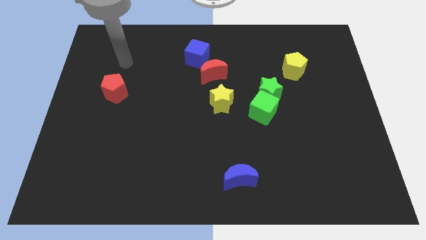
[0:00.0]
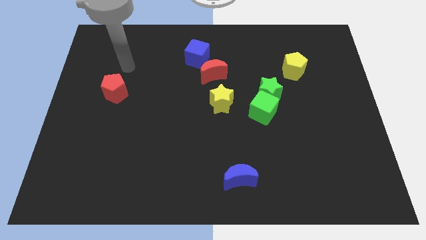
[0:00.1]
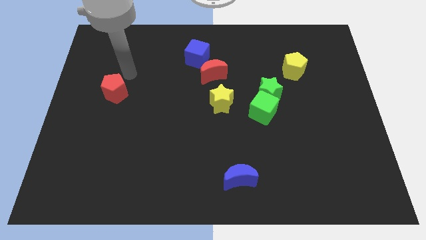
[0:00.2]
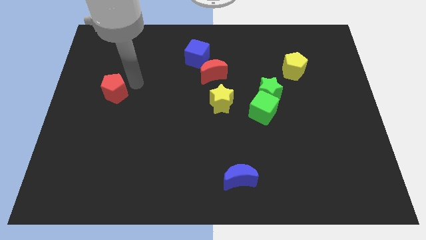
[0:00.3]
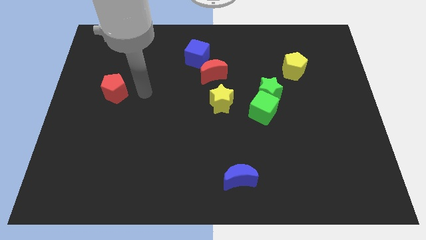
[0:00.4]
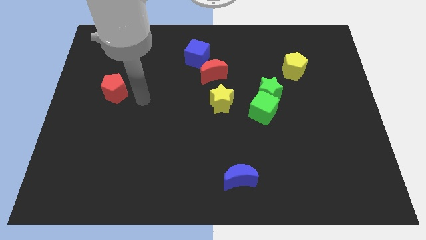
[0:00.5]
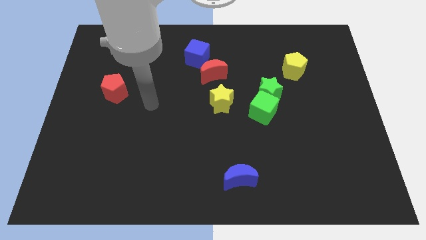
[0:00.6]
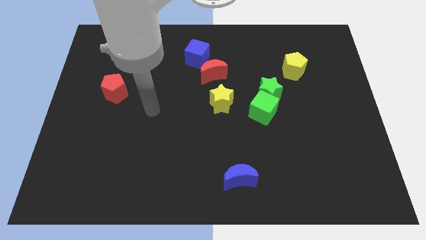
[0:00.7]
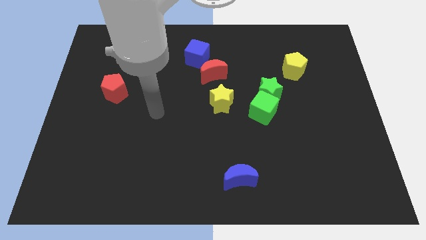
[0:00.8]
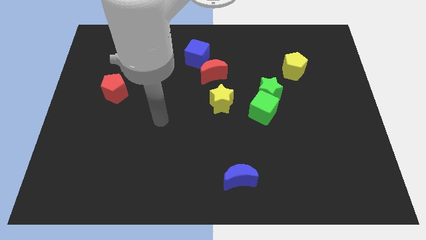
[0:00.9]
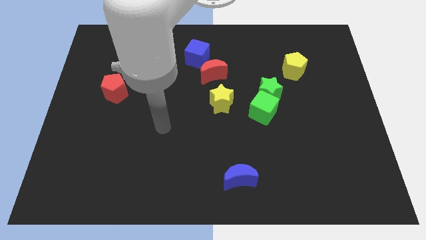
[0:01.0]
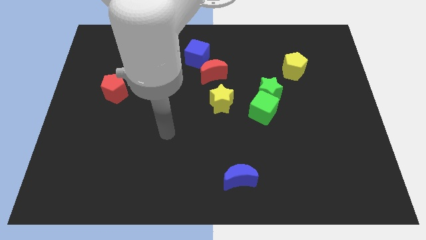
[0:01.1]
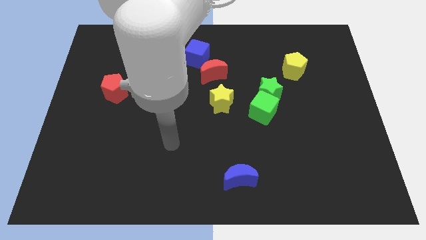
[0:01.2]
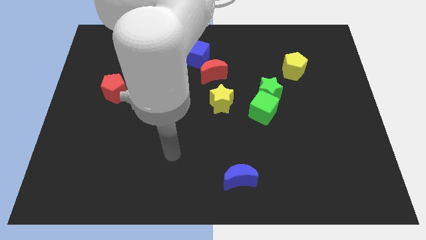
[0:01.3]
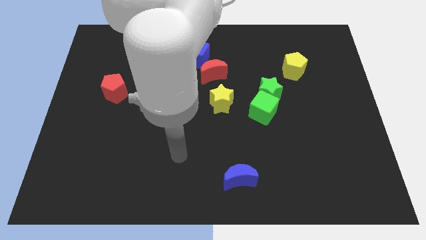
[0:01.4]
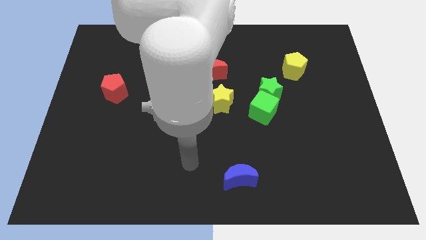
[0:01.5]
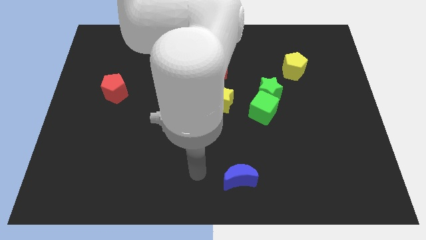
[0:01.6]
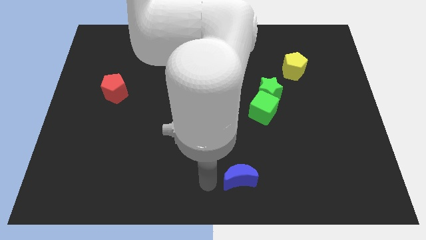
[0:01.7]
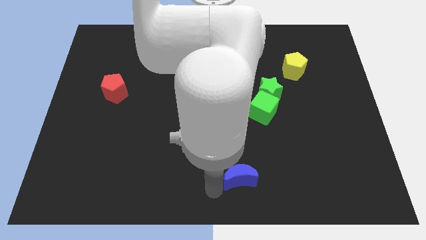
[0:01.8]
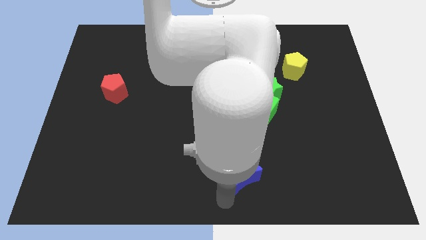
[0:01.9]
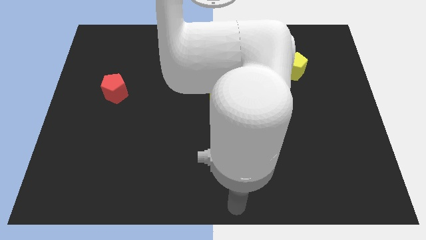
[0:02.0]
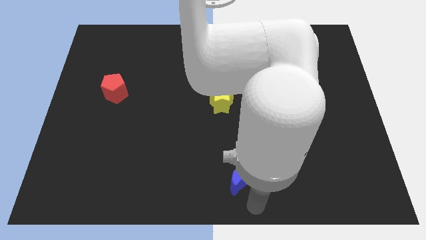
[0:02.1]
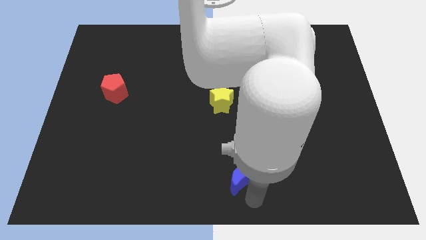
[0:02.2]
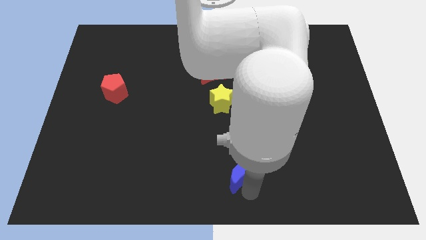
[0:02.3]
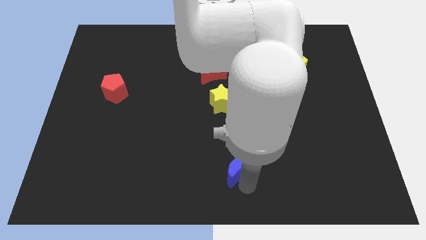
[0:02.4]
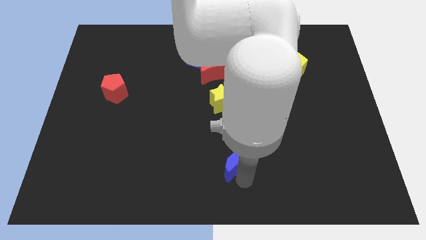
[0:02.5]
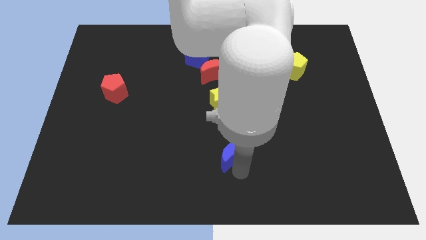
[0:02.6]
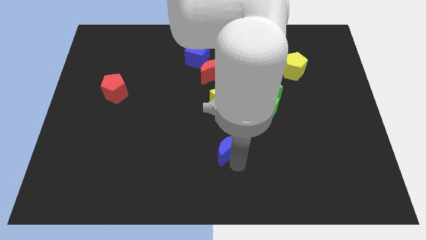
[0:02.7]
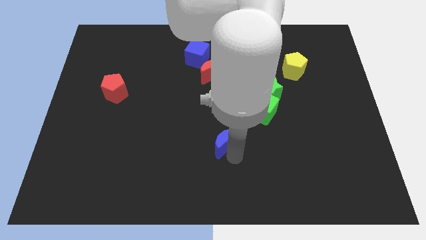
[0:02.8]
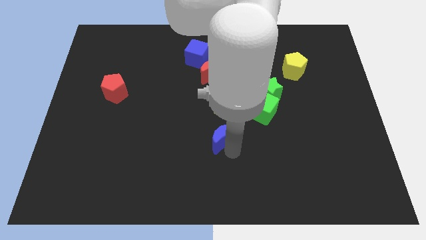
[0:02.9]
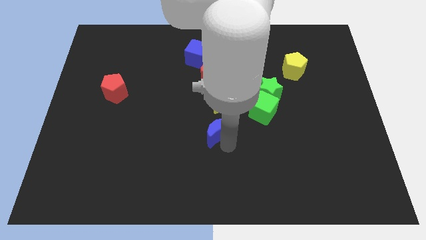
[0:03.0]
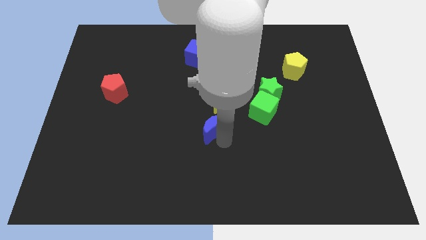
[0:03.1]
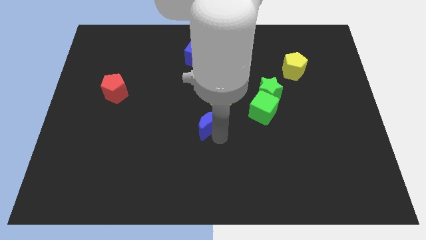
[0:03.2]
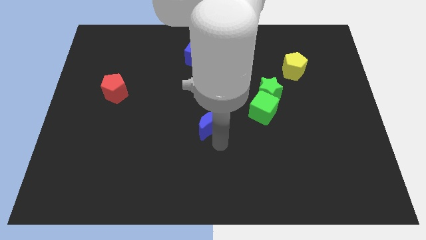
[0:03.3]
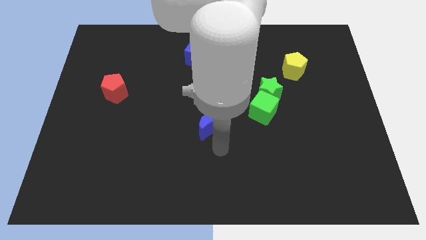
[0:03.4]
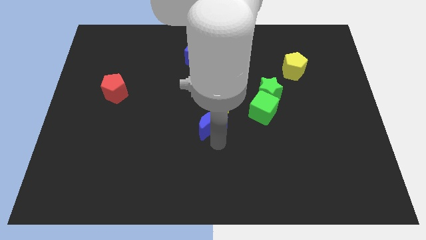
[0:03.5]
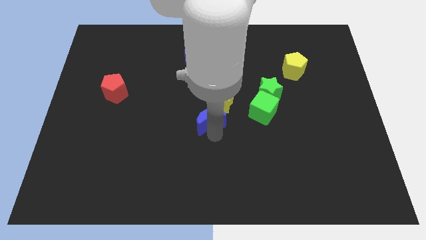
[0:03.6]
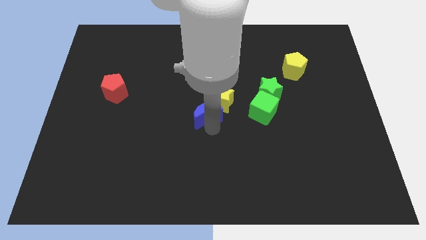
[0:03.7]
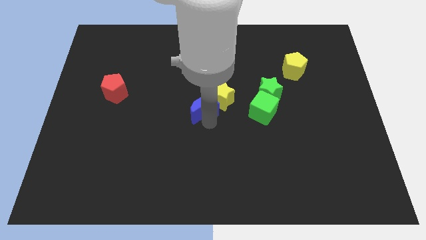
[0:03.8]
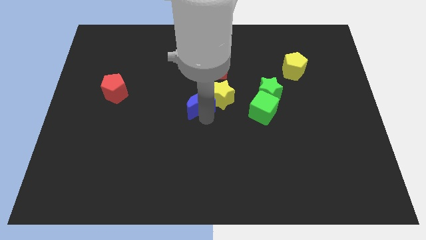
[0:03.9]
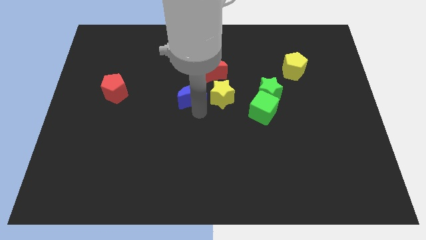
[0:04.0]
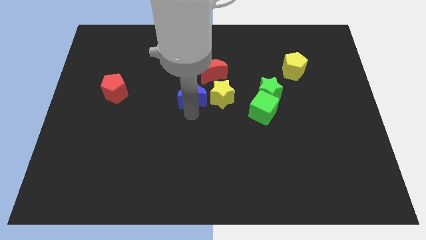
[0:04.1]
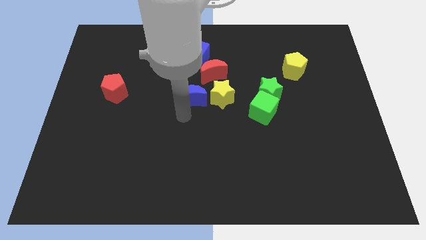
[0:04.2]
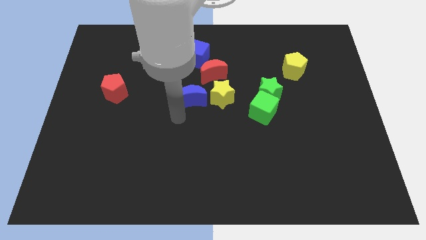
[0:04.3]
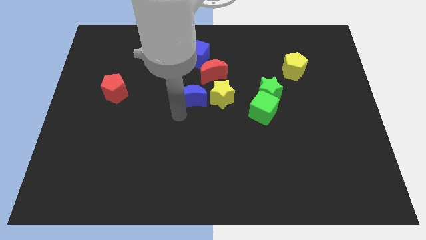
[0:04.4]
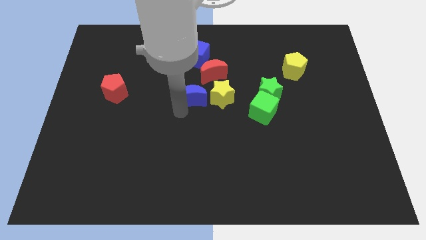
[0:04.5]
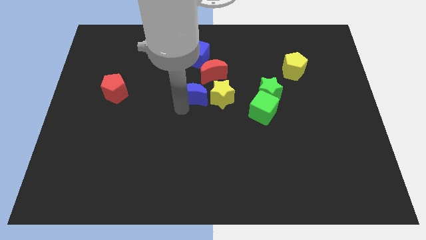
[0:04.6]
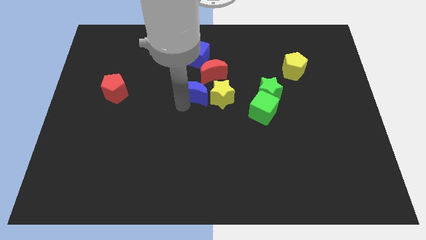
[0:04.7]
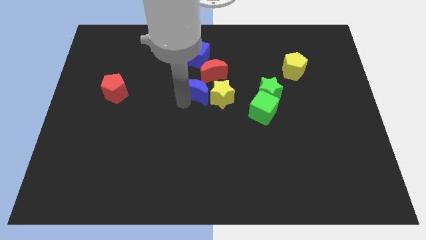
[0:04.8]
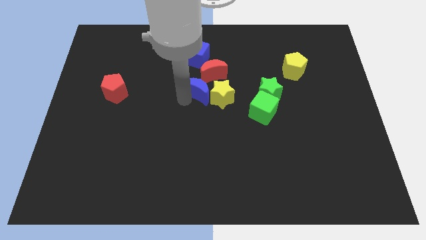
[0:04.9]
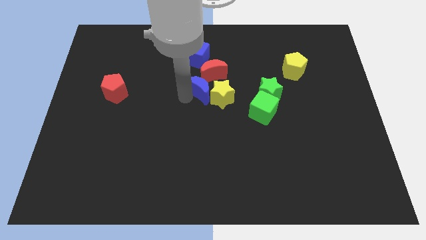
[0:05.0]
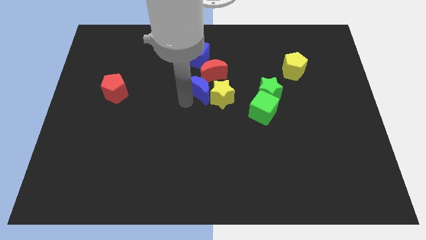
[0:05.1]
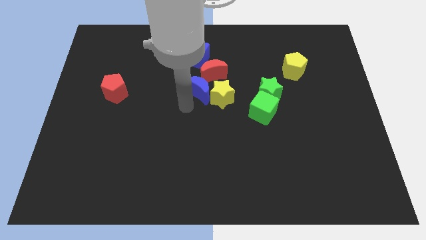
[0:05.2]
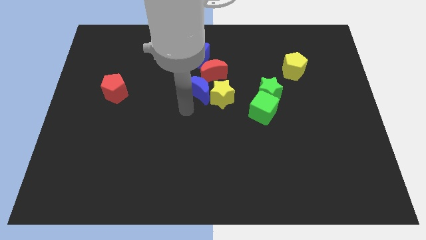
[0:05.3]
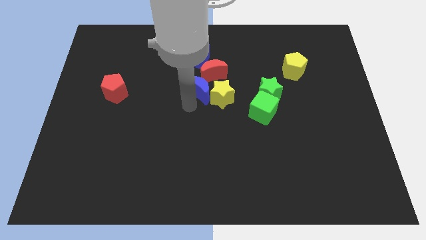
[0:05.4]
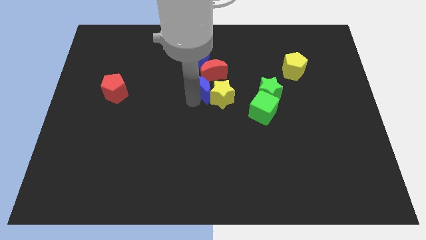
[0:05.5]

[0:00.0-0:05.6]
push the blue moon to the red moon

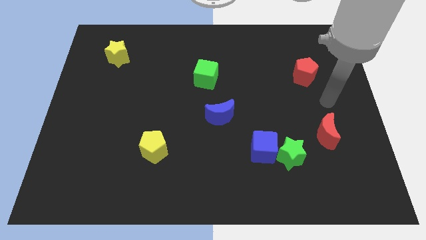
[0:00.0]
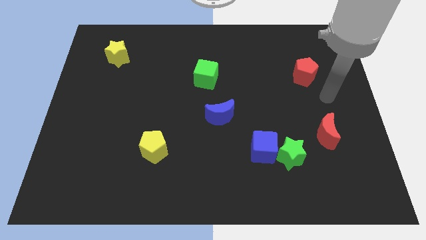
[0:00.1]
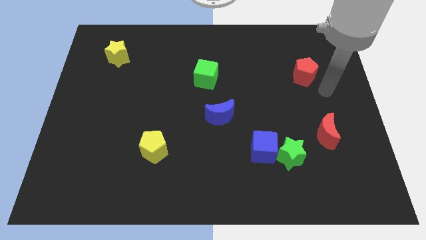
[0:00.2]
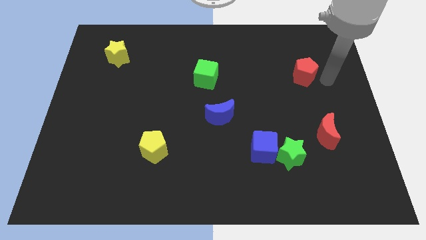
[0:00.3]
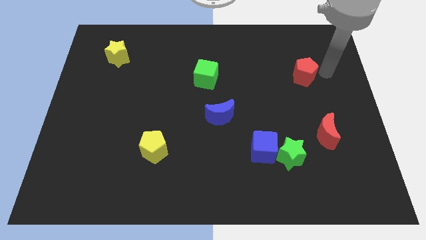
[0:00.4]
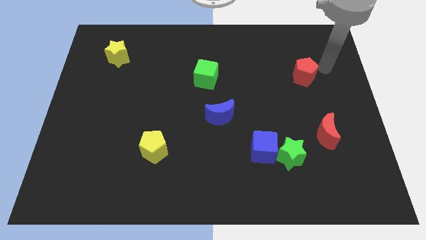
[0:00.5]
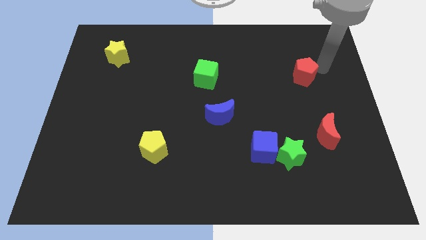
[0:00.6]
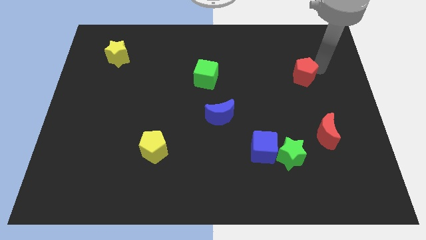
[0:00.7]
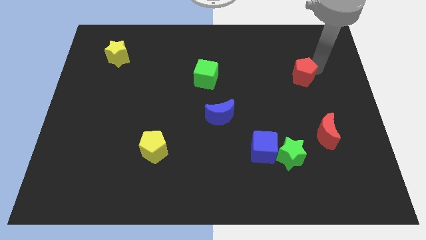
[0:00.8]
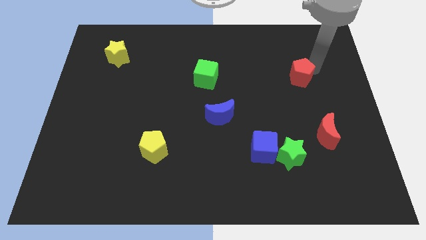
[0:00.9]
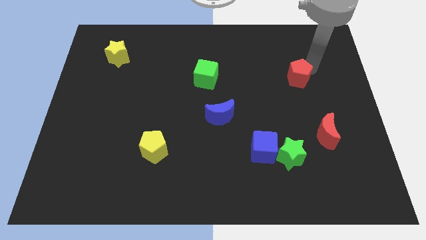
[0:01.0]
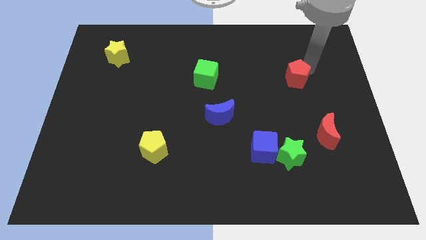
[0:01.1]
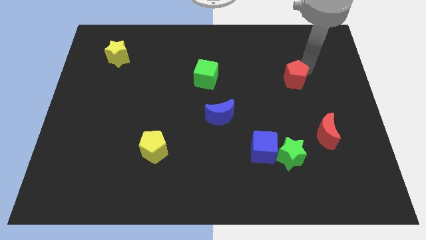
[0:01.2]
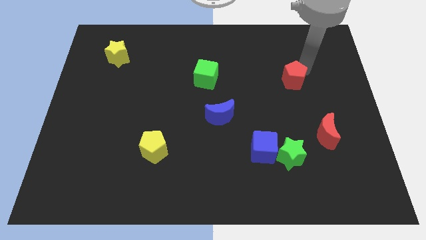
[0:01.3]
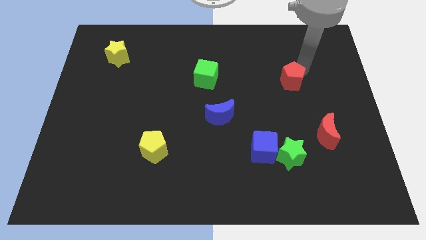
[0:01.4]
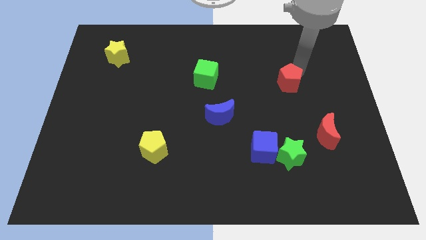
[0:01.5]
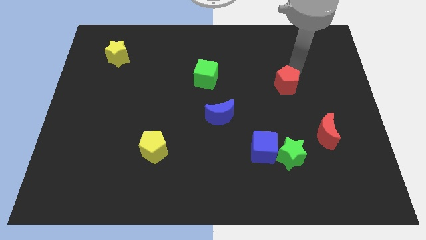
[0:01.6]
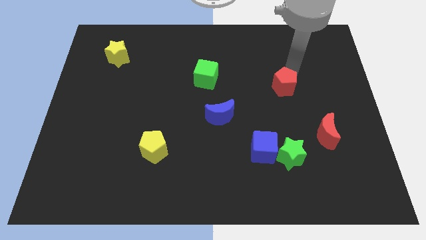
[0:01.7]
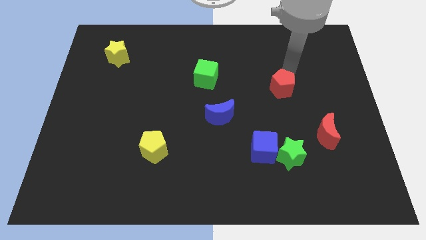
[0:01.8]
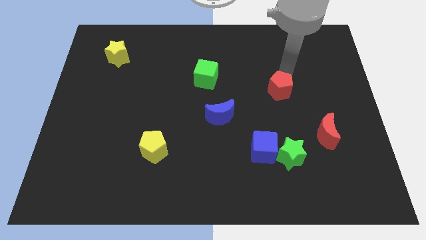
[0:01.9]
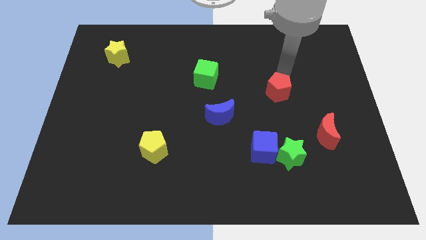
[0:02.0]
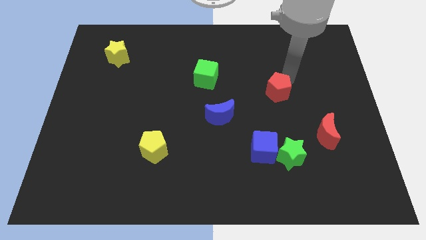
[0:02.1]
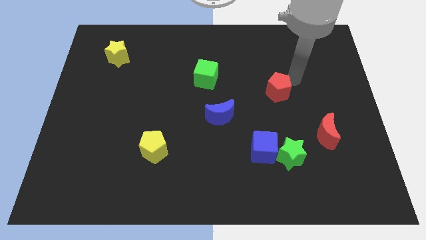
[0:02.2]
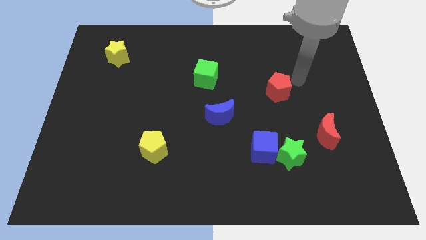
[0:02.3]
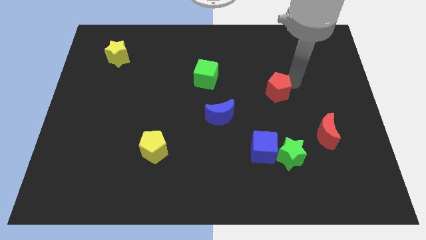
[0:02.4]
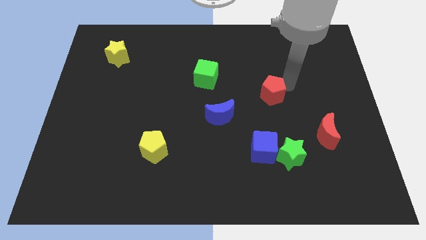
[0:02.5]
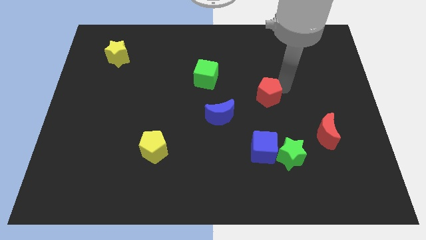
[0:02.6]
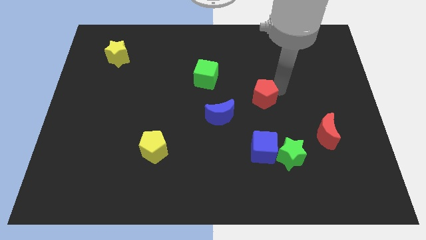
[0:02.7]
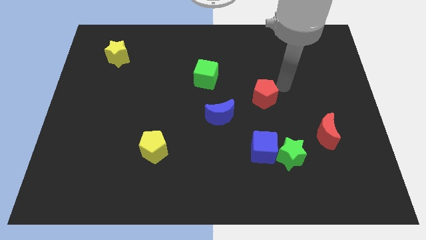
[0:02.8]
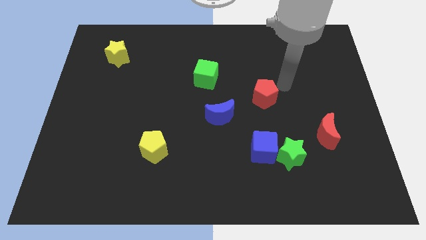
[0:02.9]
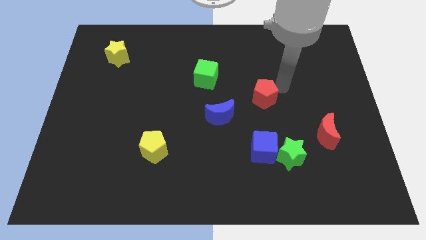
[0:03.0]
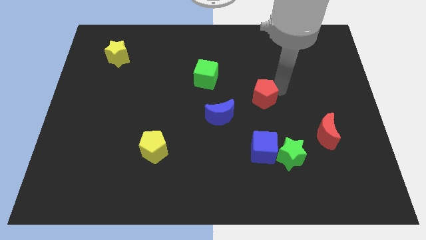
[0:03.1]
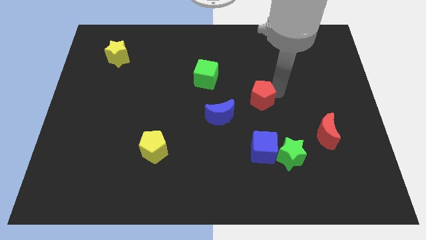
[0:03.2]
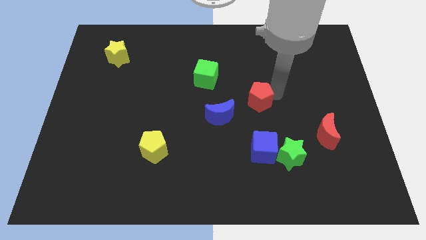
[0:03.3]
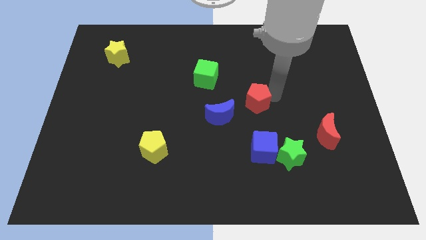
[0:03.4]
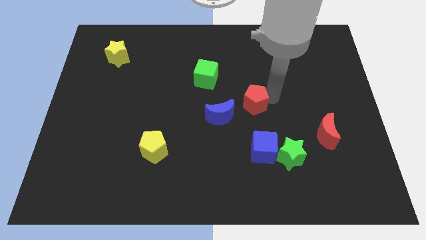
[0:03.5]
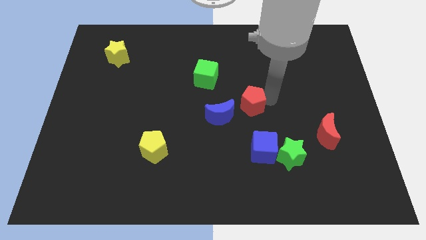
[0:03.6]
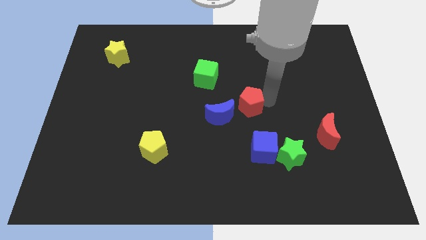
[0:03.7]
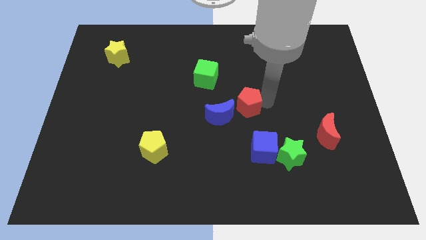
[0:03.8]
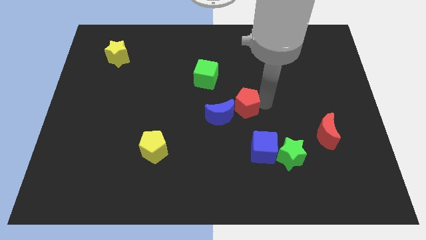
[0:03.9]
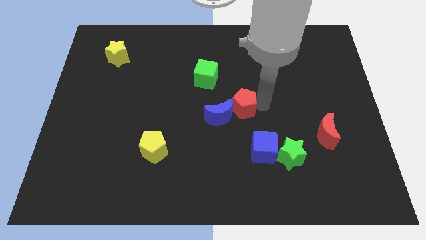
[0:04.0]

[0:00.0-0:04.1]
push the red pentagon towards the blue moon
